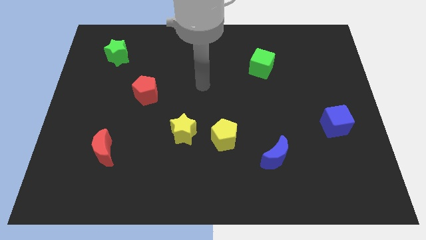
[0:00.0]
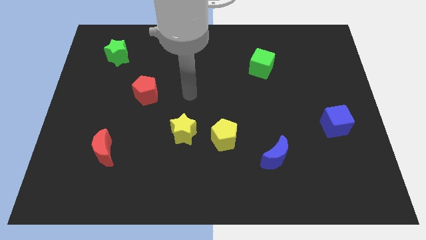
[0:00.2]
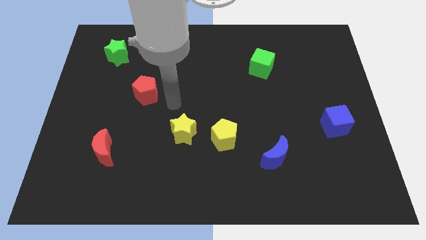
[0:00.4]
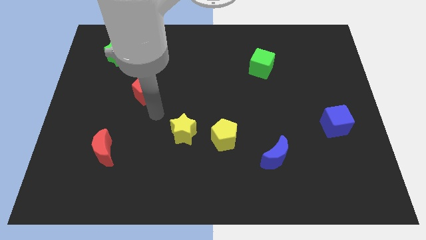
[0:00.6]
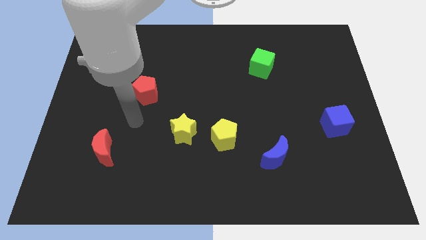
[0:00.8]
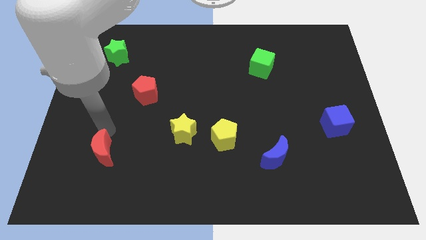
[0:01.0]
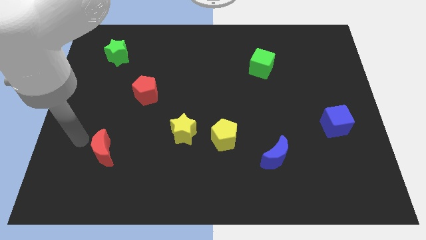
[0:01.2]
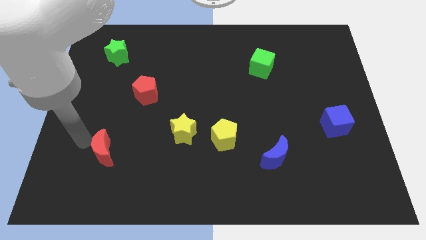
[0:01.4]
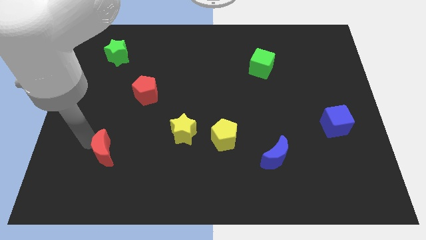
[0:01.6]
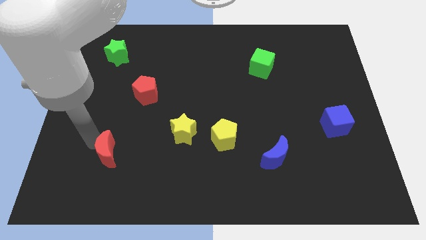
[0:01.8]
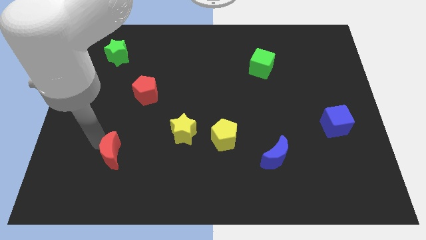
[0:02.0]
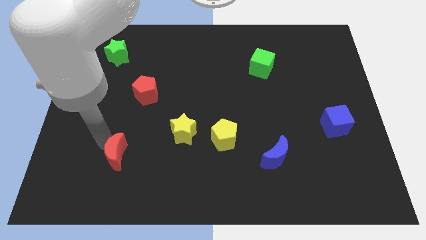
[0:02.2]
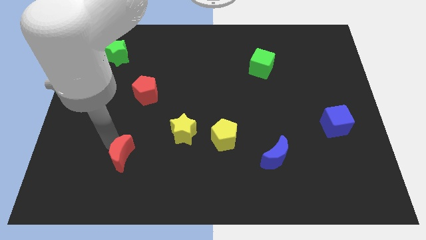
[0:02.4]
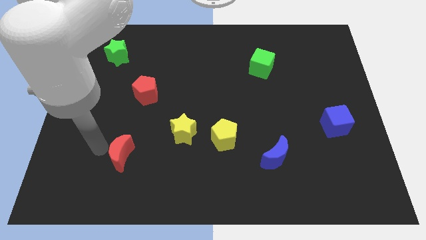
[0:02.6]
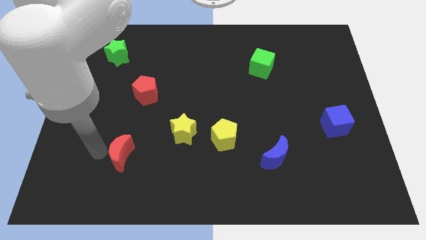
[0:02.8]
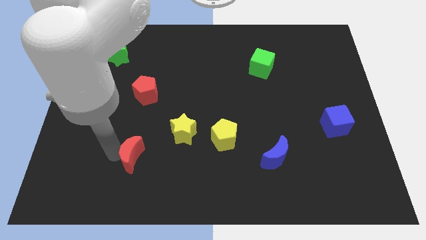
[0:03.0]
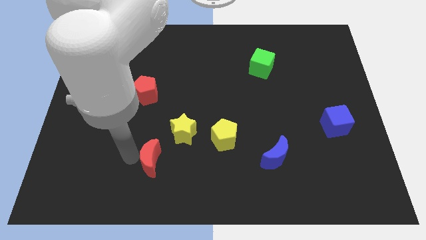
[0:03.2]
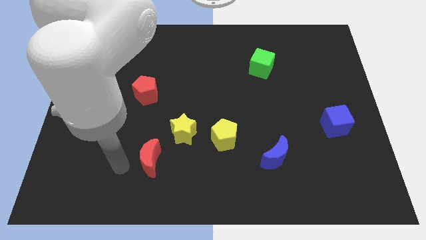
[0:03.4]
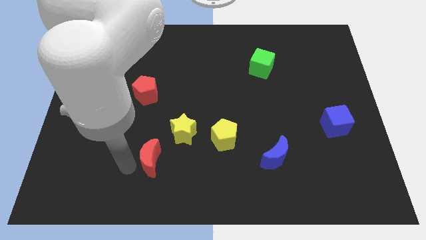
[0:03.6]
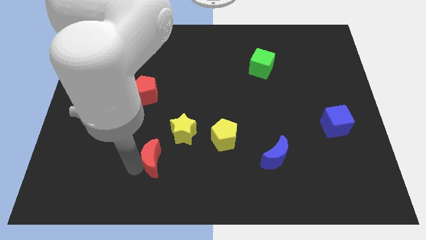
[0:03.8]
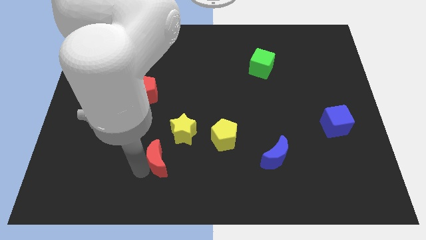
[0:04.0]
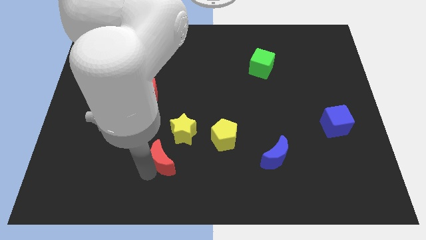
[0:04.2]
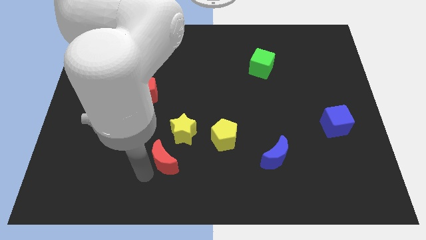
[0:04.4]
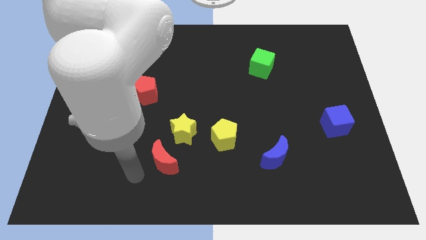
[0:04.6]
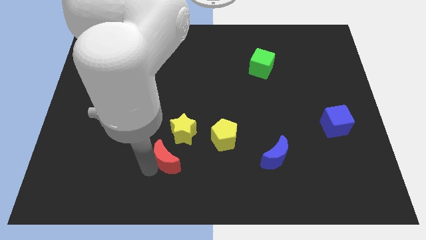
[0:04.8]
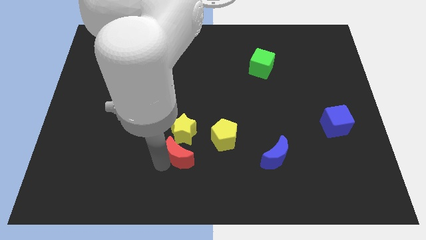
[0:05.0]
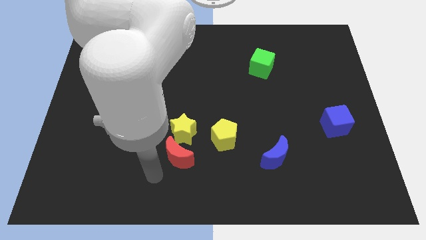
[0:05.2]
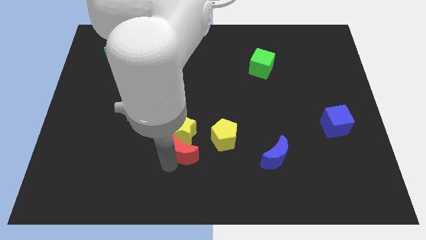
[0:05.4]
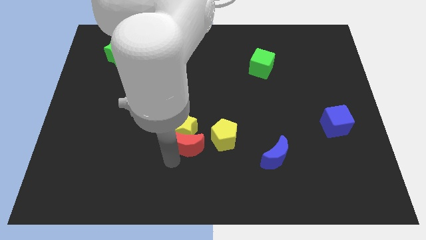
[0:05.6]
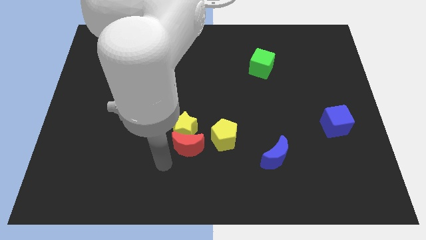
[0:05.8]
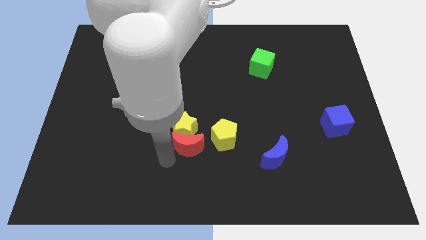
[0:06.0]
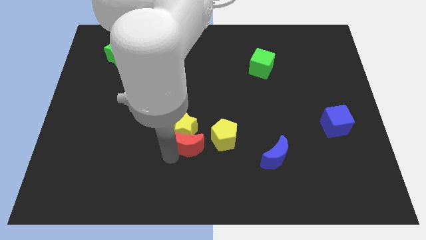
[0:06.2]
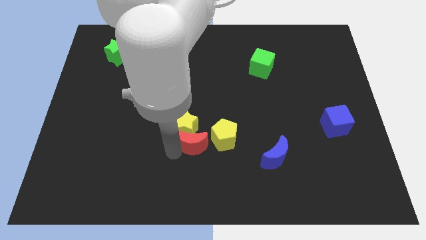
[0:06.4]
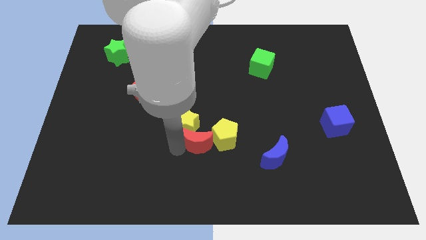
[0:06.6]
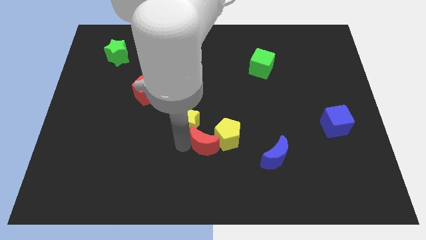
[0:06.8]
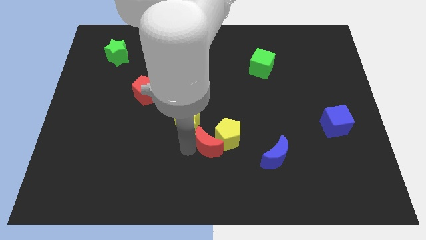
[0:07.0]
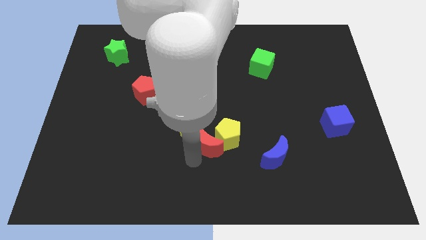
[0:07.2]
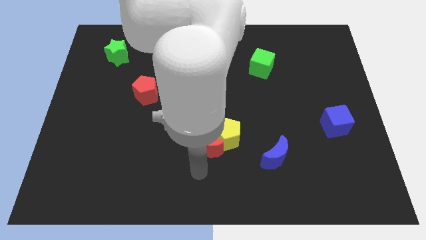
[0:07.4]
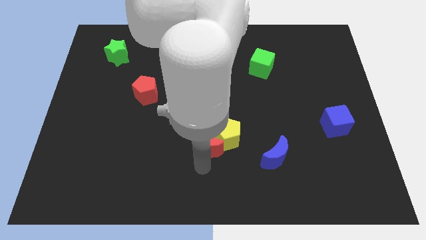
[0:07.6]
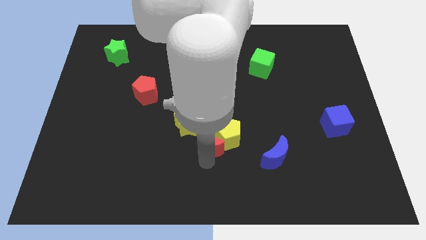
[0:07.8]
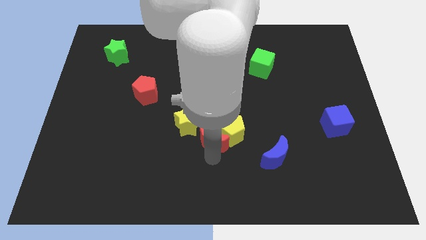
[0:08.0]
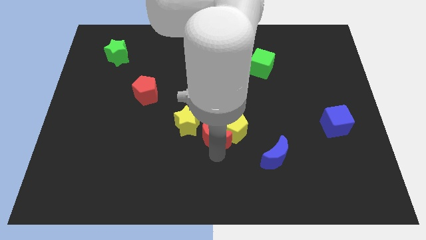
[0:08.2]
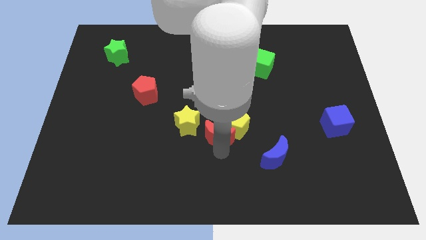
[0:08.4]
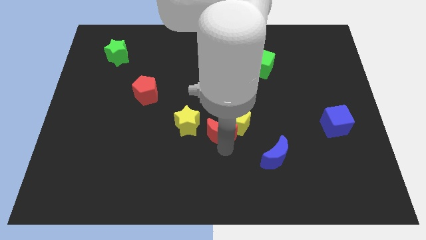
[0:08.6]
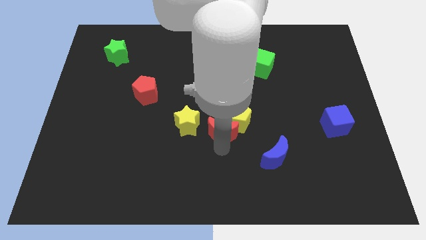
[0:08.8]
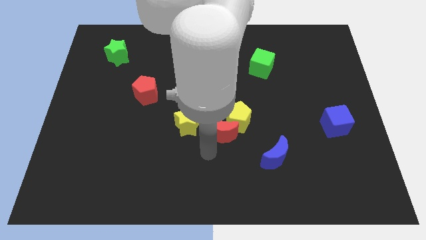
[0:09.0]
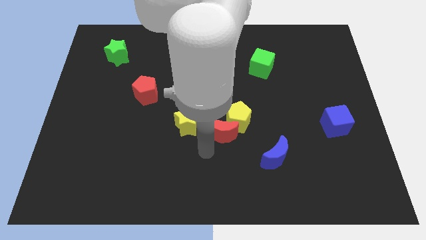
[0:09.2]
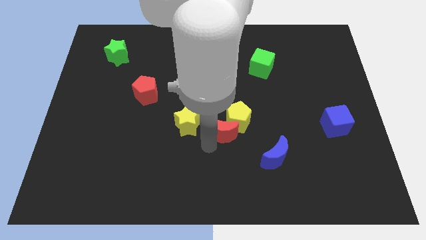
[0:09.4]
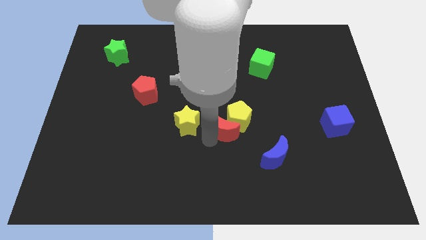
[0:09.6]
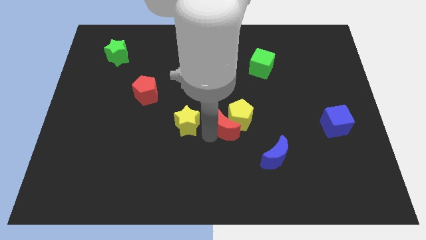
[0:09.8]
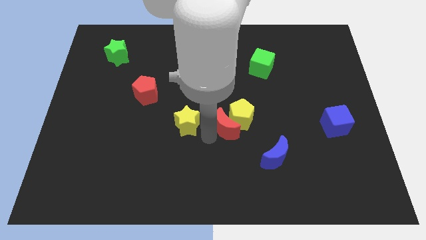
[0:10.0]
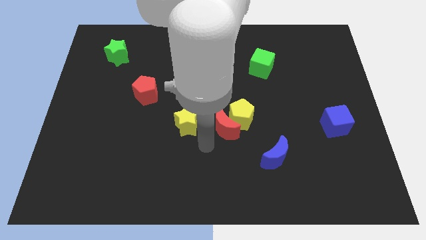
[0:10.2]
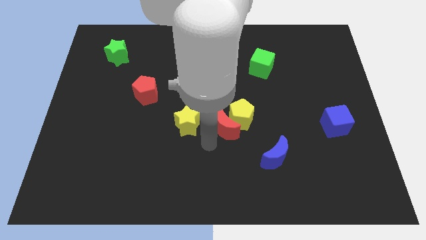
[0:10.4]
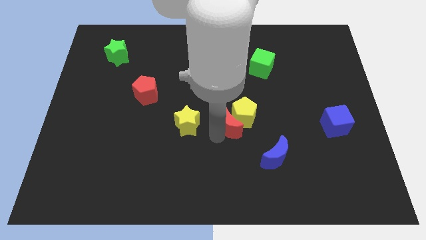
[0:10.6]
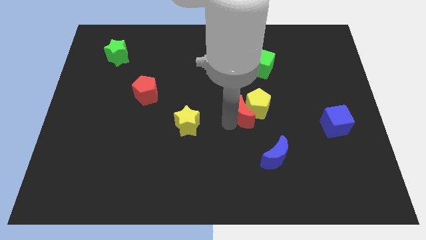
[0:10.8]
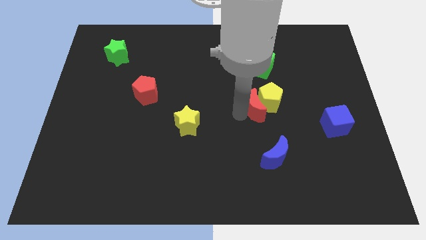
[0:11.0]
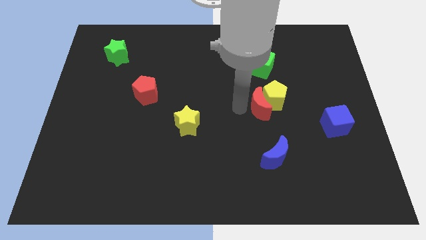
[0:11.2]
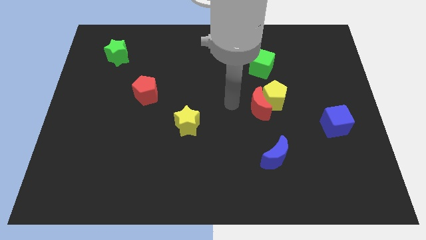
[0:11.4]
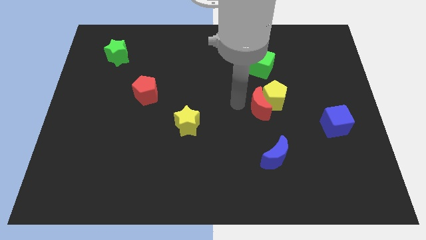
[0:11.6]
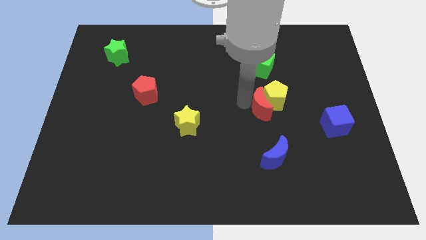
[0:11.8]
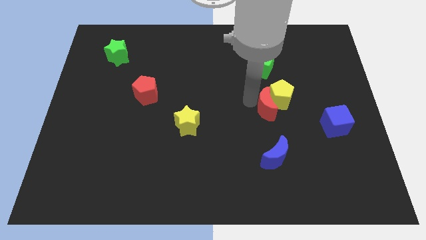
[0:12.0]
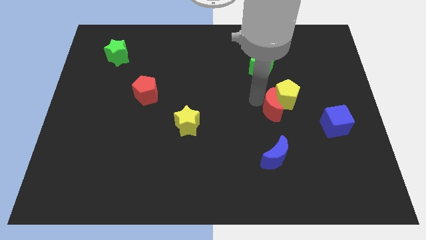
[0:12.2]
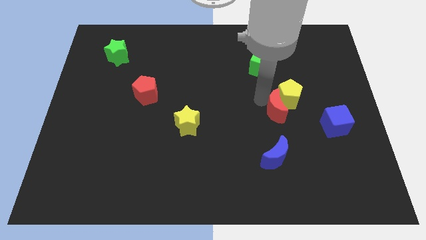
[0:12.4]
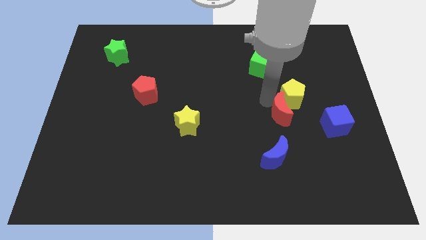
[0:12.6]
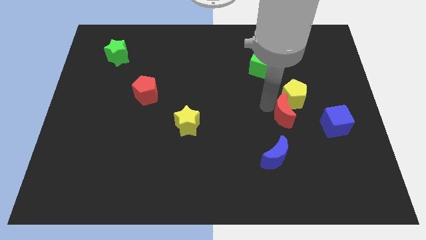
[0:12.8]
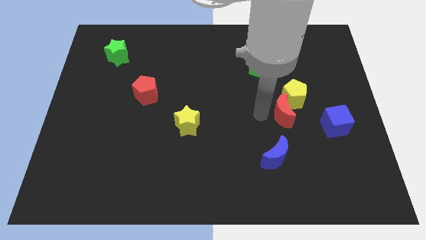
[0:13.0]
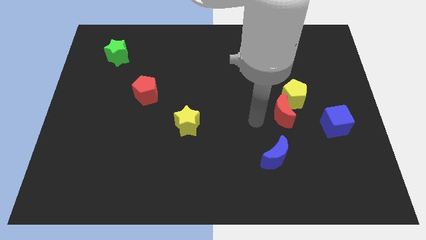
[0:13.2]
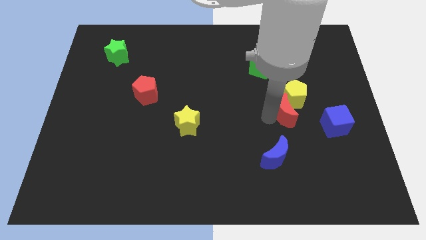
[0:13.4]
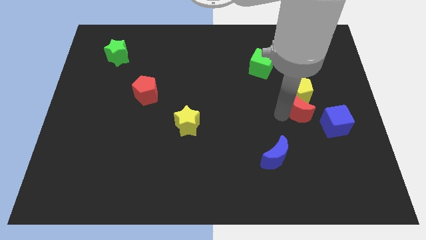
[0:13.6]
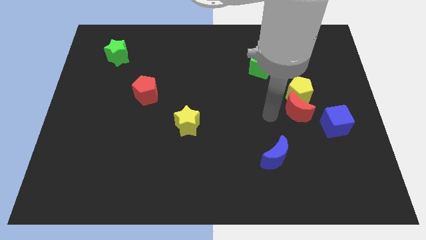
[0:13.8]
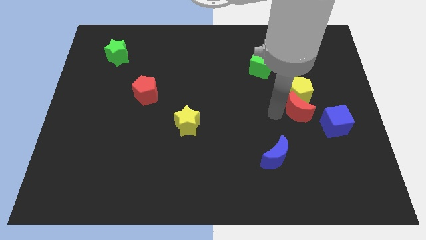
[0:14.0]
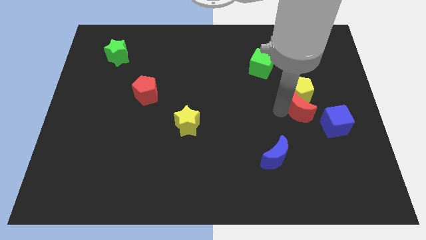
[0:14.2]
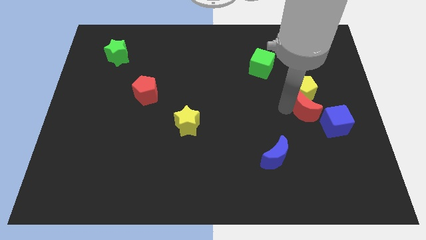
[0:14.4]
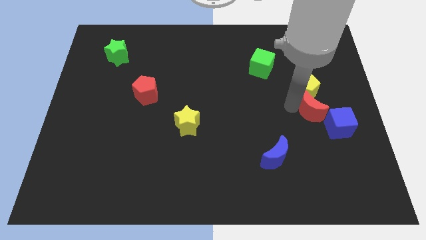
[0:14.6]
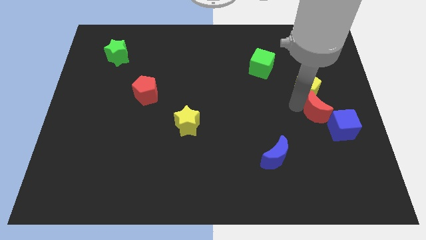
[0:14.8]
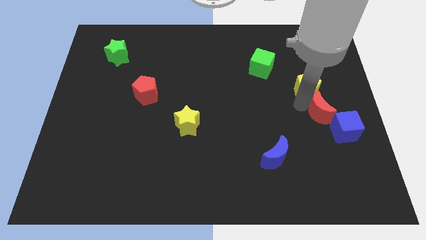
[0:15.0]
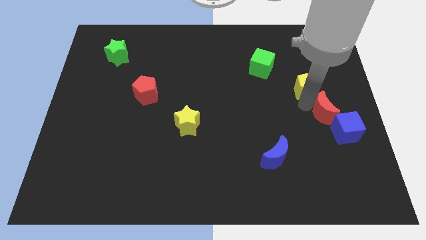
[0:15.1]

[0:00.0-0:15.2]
push the red moon to the right side
